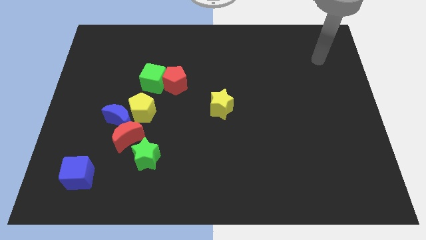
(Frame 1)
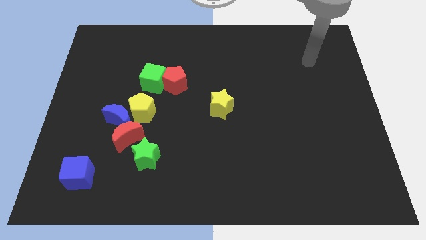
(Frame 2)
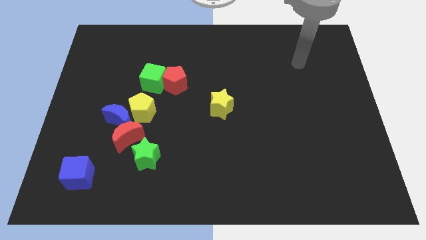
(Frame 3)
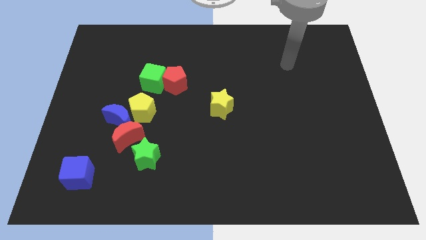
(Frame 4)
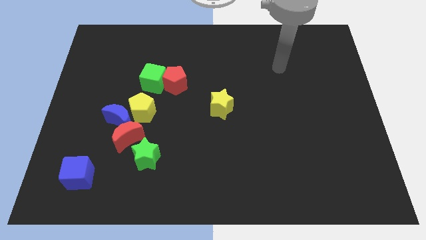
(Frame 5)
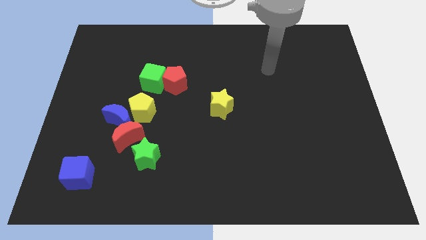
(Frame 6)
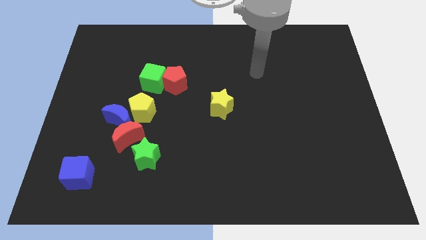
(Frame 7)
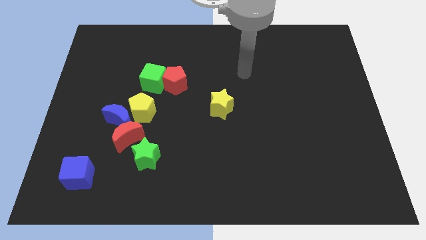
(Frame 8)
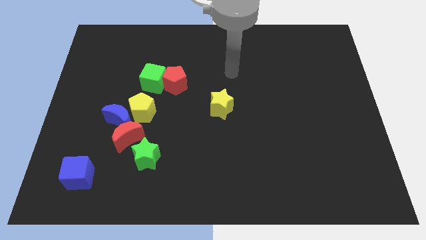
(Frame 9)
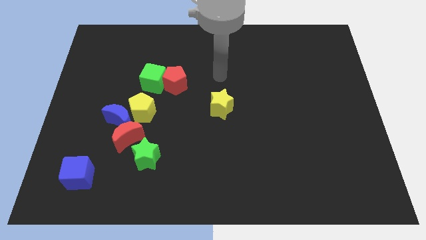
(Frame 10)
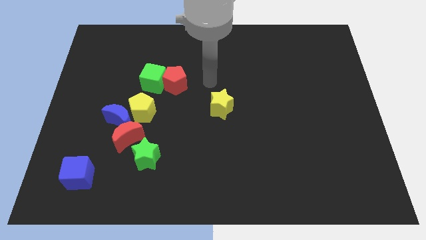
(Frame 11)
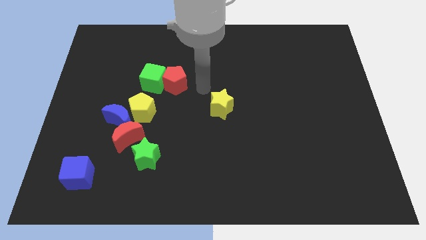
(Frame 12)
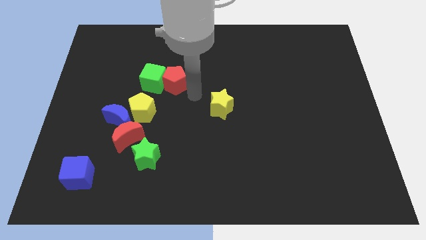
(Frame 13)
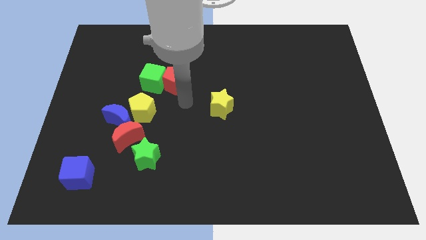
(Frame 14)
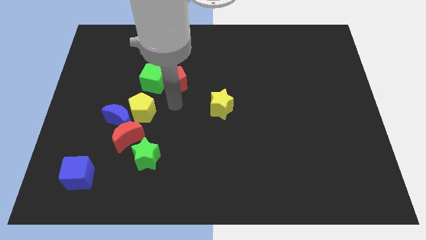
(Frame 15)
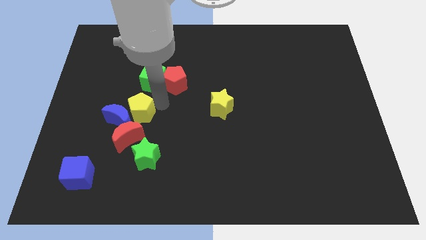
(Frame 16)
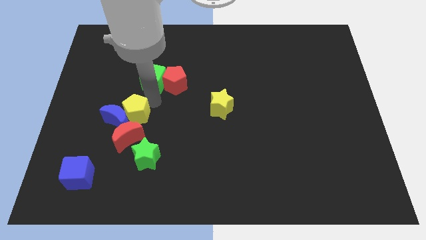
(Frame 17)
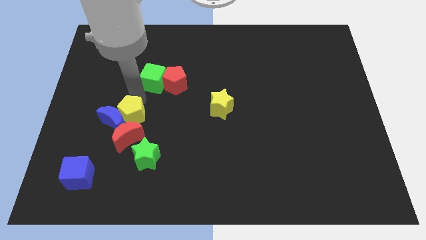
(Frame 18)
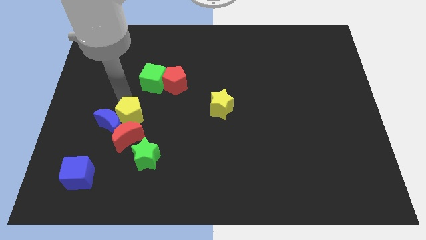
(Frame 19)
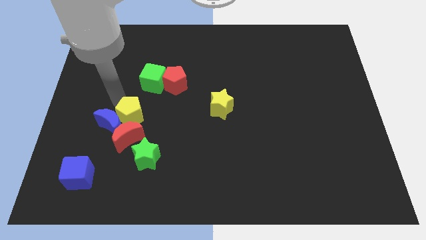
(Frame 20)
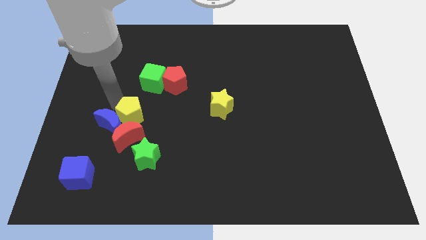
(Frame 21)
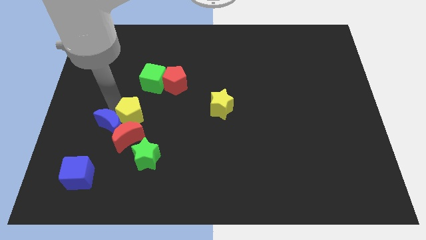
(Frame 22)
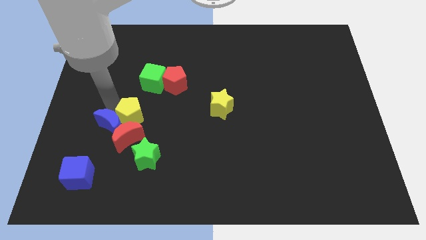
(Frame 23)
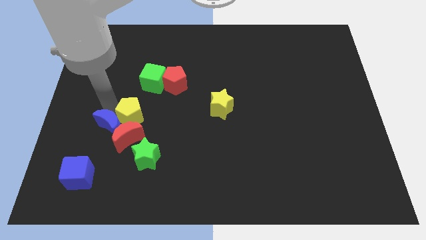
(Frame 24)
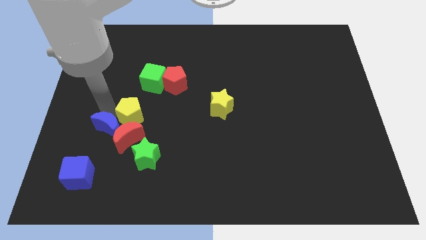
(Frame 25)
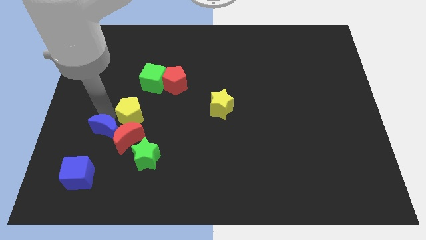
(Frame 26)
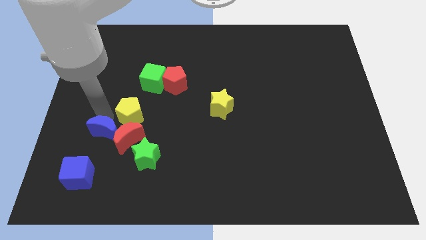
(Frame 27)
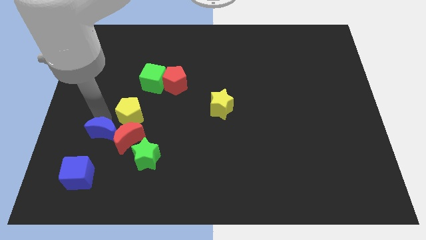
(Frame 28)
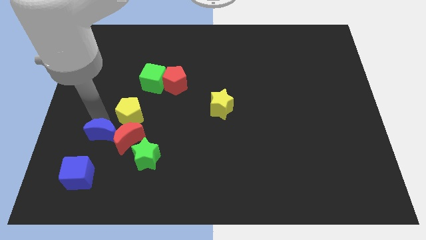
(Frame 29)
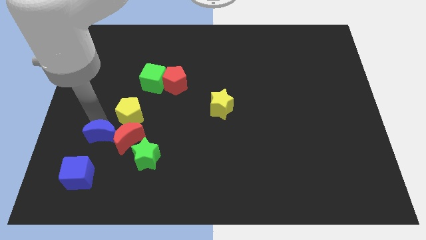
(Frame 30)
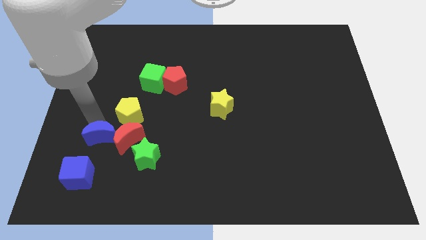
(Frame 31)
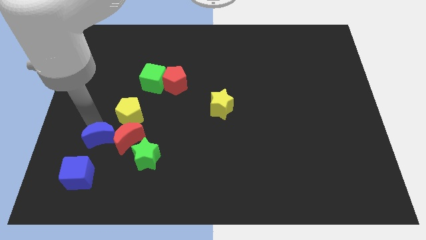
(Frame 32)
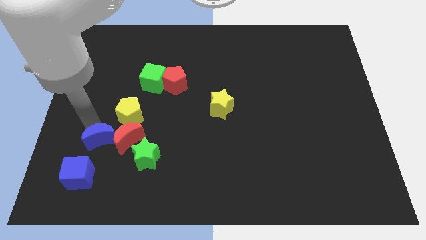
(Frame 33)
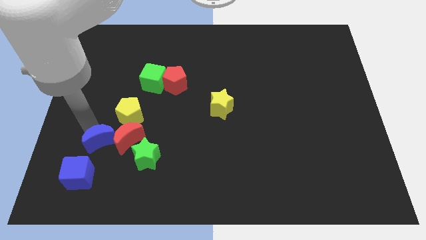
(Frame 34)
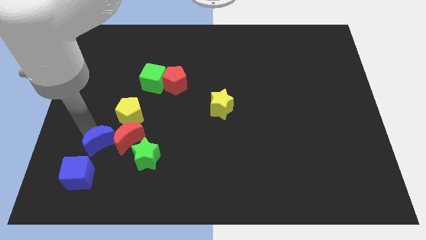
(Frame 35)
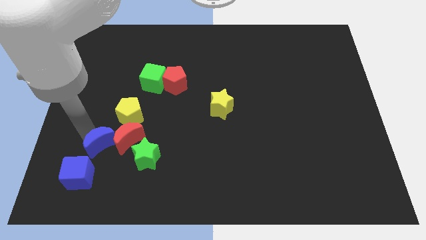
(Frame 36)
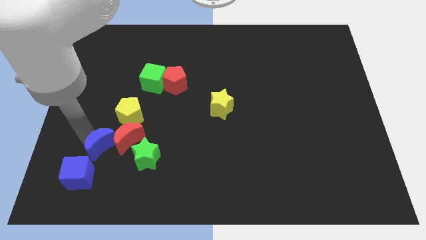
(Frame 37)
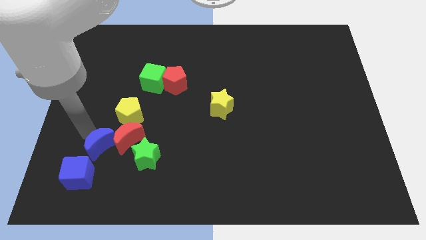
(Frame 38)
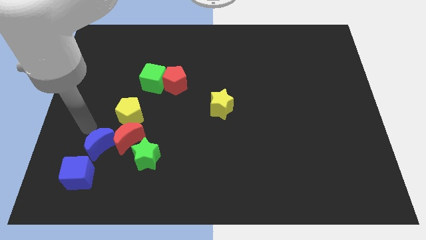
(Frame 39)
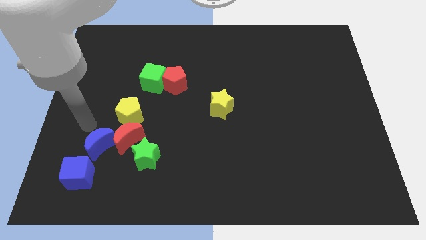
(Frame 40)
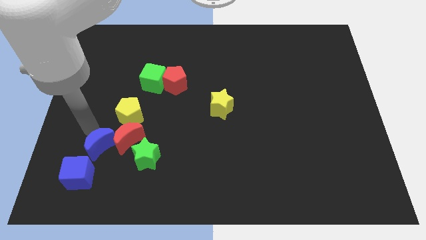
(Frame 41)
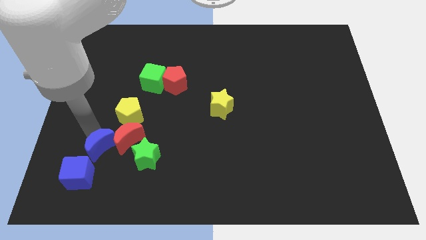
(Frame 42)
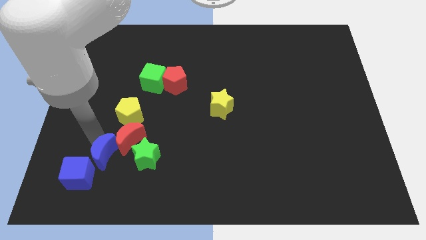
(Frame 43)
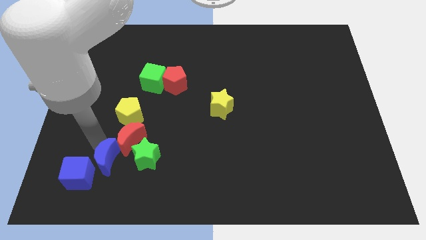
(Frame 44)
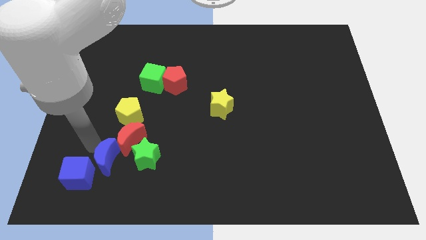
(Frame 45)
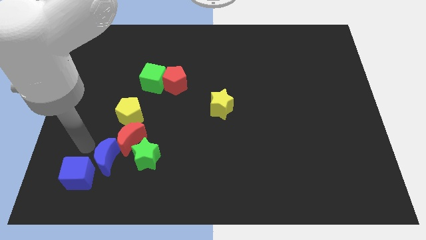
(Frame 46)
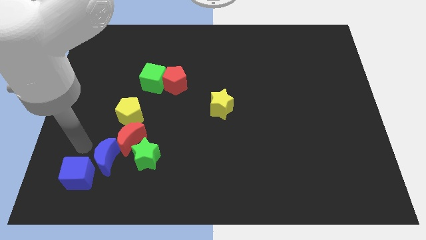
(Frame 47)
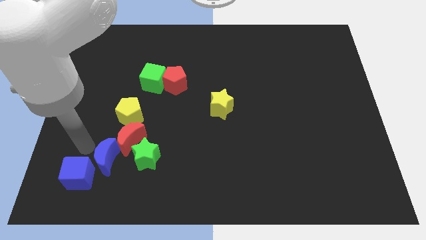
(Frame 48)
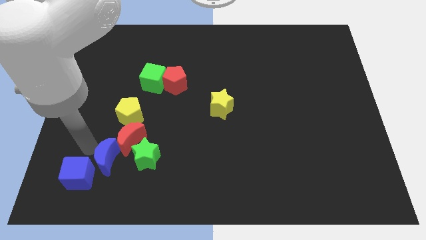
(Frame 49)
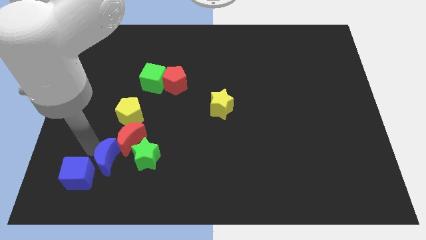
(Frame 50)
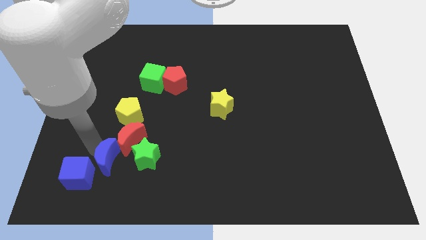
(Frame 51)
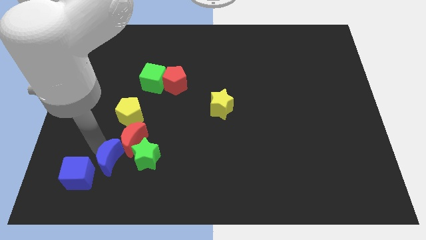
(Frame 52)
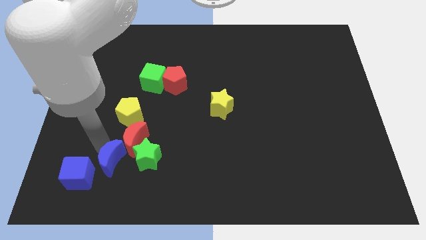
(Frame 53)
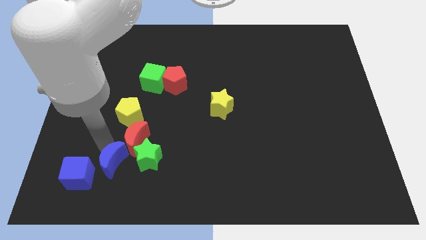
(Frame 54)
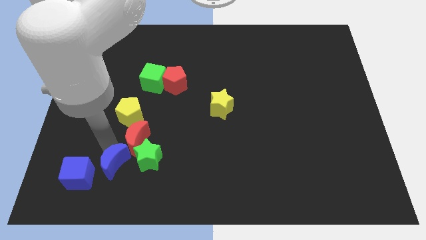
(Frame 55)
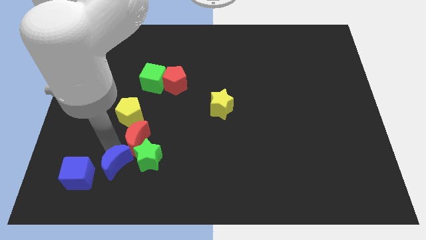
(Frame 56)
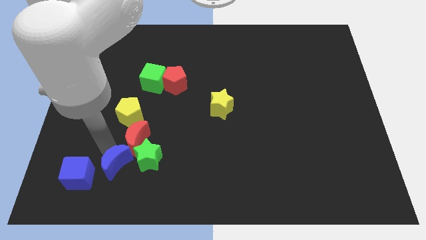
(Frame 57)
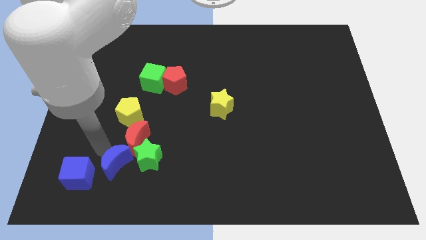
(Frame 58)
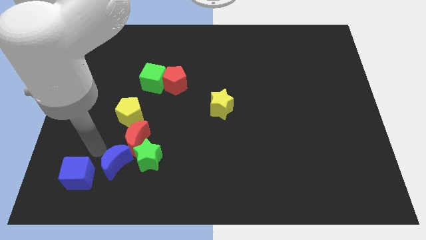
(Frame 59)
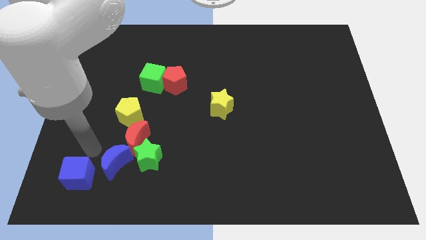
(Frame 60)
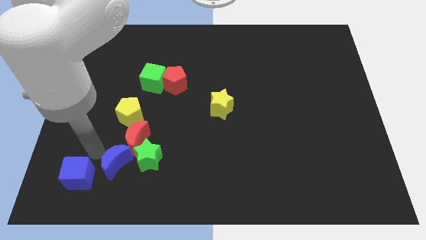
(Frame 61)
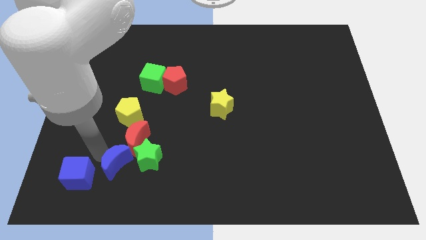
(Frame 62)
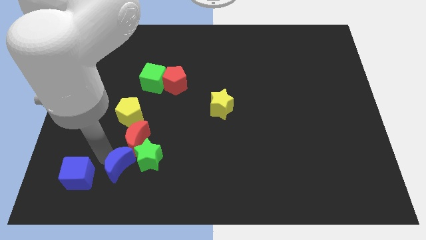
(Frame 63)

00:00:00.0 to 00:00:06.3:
slightly move the blue moon down and then to the right

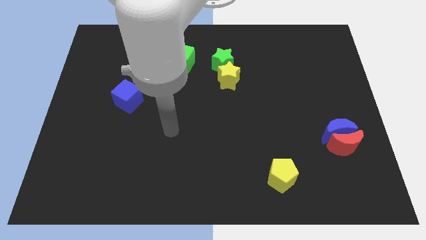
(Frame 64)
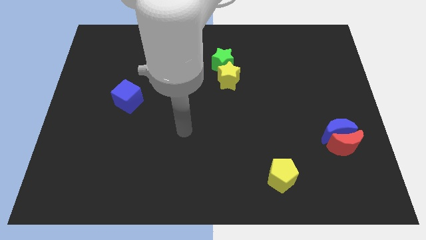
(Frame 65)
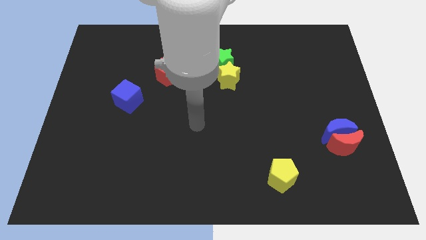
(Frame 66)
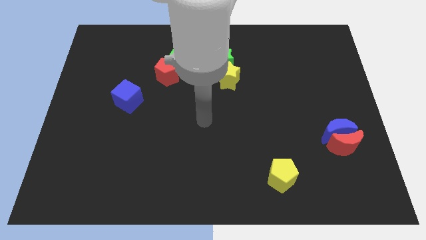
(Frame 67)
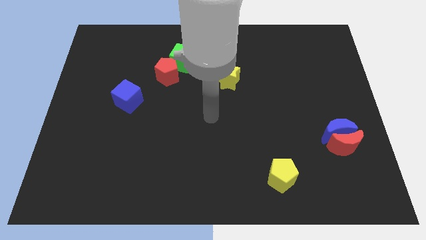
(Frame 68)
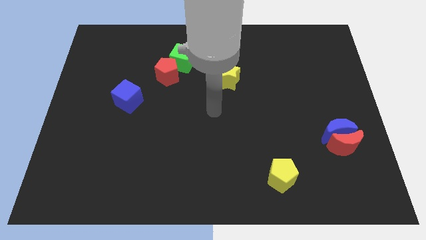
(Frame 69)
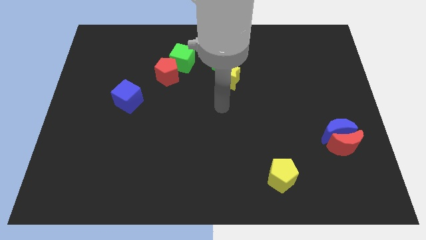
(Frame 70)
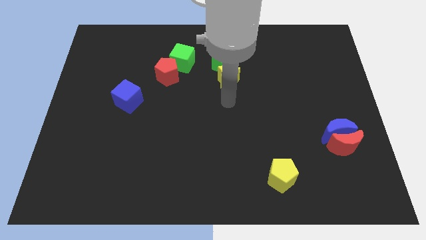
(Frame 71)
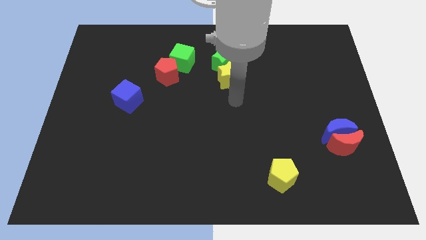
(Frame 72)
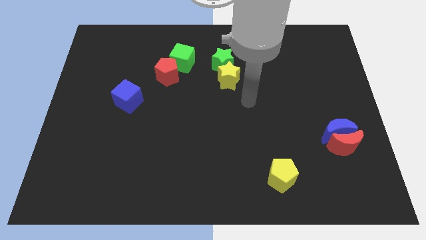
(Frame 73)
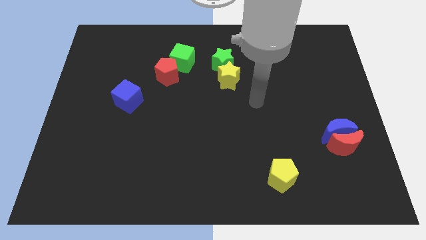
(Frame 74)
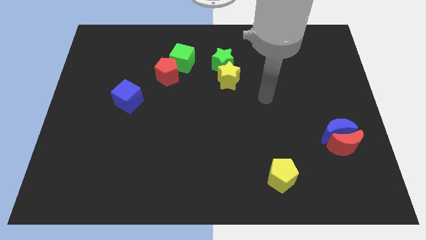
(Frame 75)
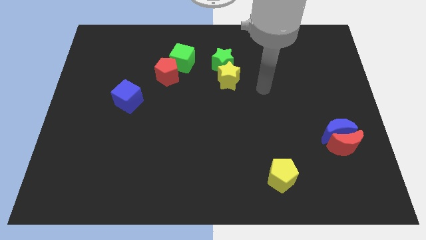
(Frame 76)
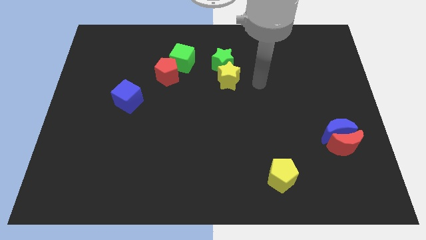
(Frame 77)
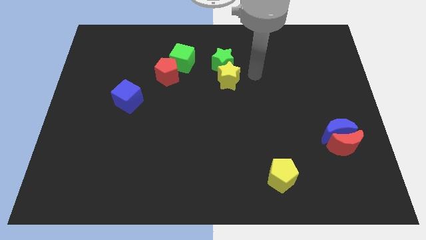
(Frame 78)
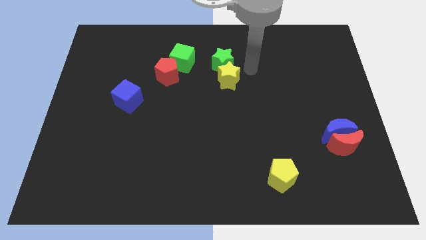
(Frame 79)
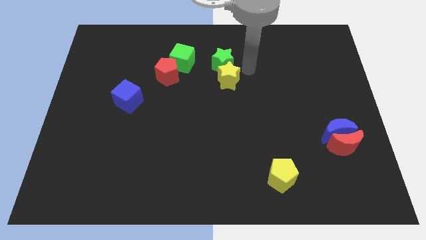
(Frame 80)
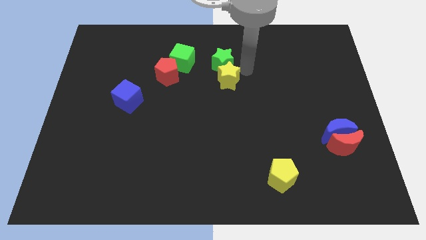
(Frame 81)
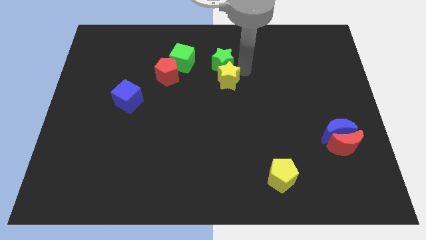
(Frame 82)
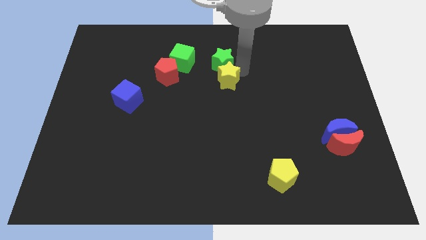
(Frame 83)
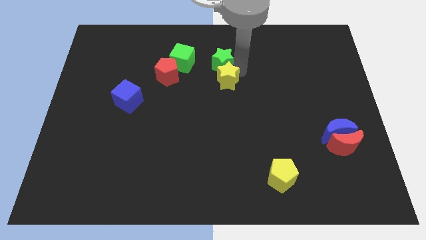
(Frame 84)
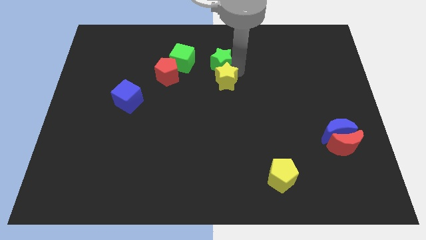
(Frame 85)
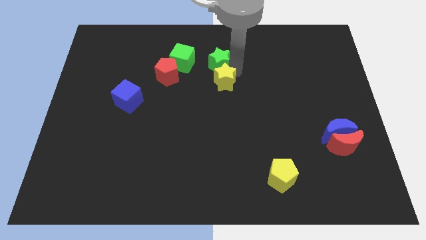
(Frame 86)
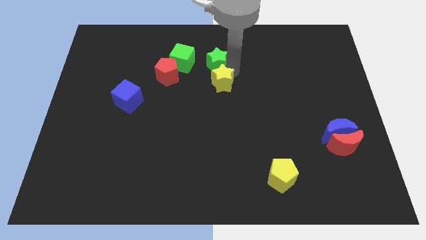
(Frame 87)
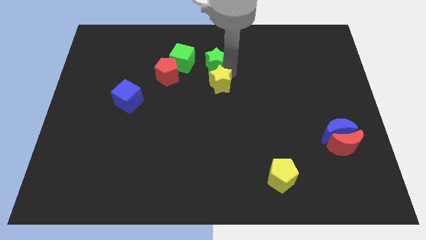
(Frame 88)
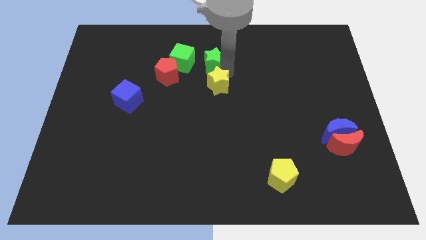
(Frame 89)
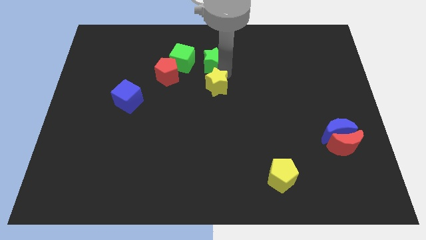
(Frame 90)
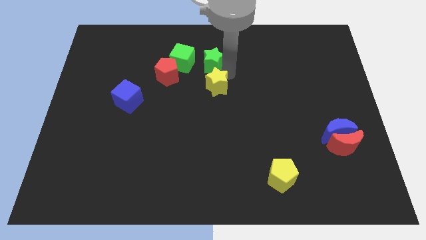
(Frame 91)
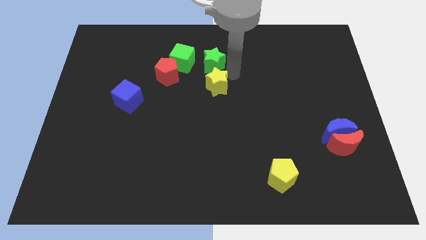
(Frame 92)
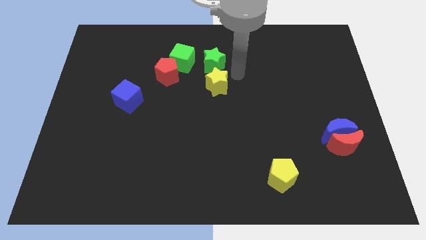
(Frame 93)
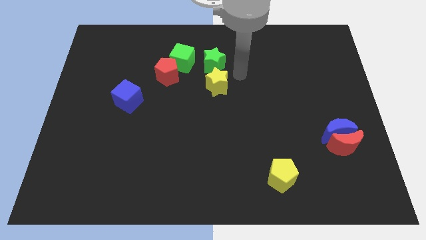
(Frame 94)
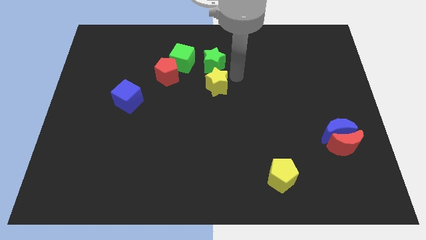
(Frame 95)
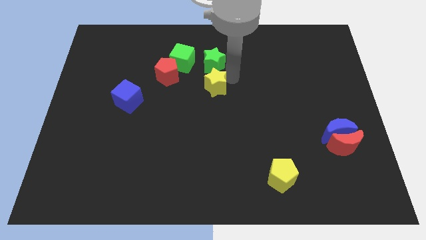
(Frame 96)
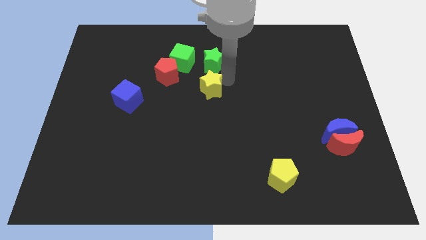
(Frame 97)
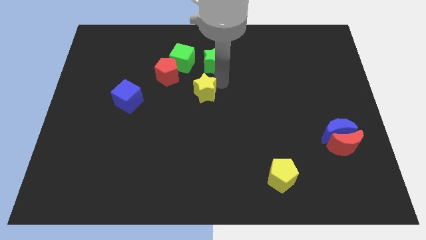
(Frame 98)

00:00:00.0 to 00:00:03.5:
push the yellow star downwards and to the left slightly
